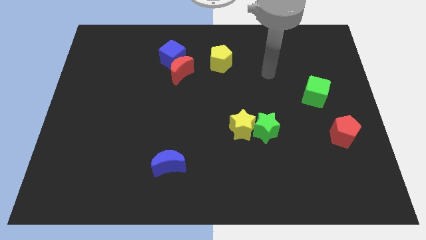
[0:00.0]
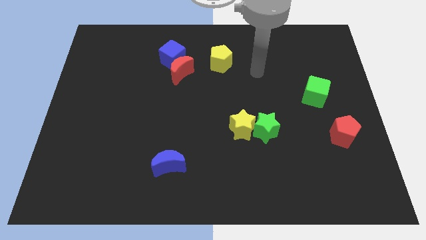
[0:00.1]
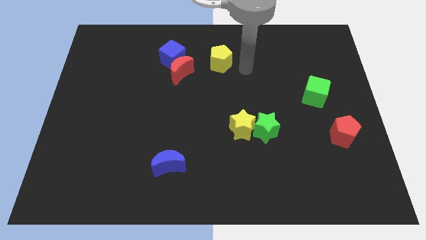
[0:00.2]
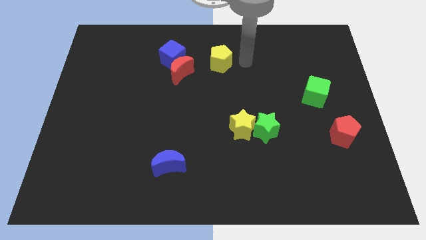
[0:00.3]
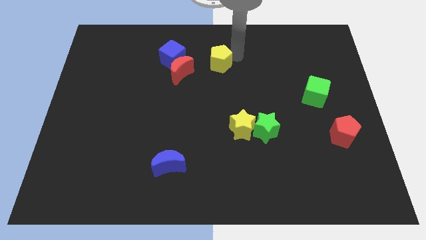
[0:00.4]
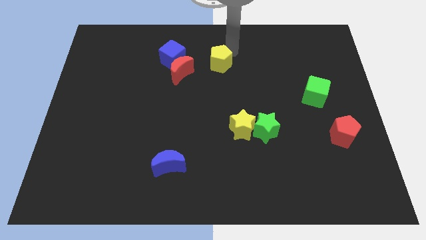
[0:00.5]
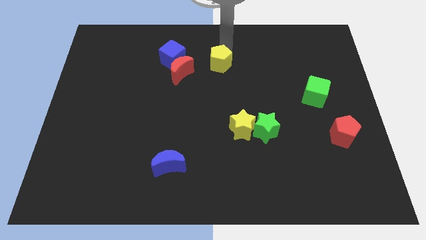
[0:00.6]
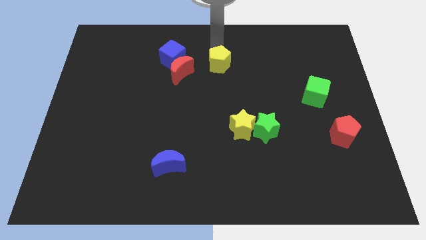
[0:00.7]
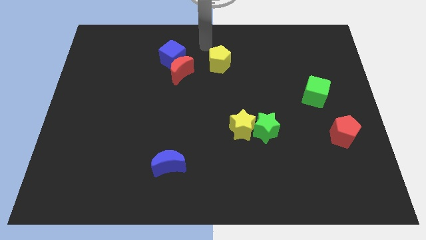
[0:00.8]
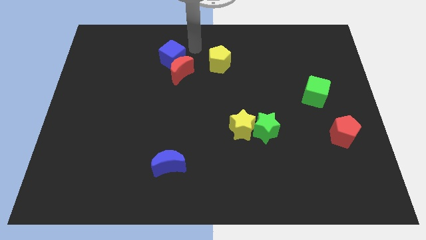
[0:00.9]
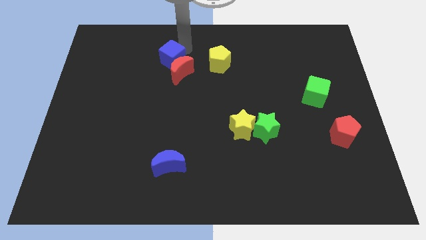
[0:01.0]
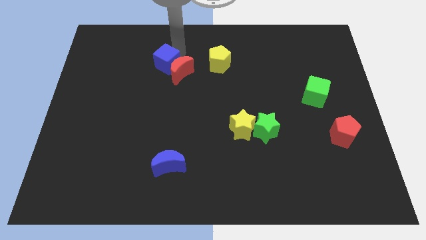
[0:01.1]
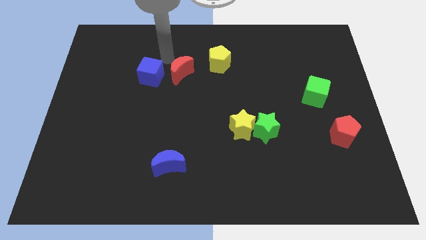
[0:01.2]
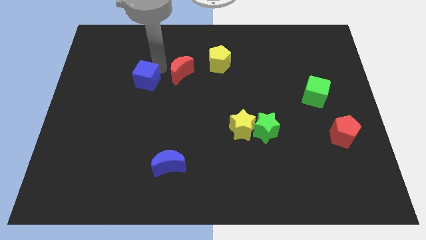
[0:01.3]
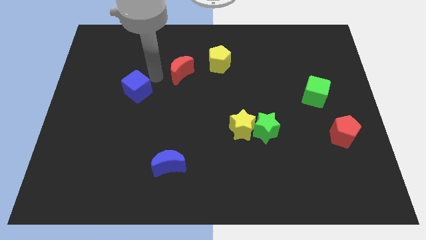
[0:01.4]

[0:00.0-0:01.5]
pull the red moon apart from the blue cube

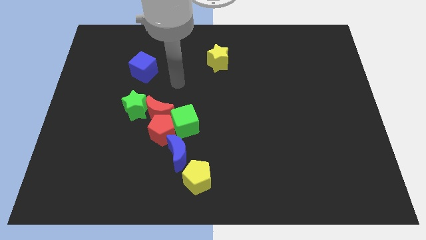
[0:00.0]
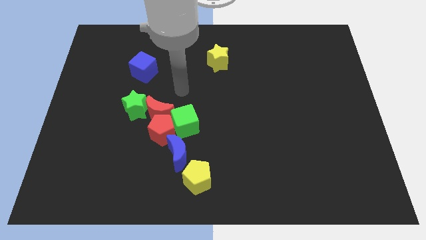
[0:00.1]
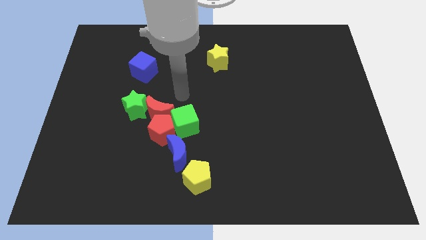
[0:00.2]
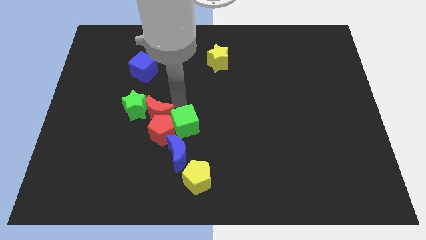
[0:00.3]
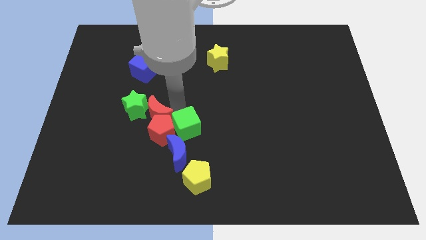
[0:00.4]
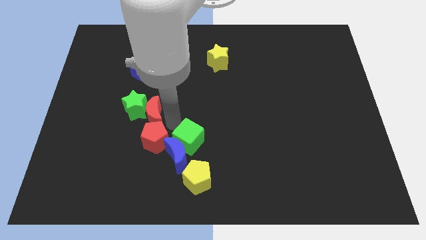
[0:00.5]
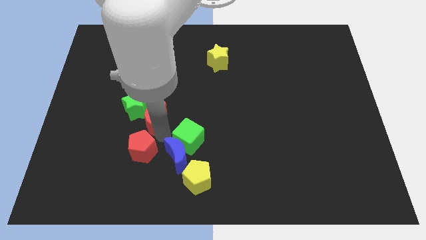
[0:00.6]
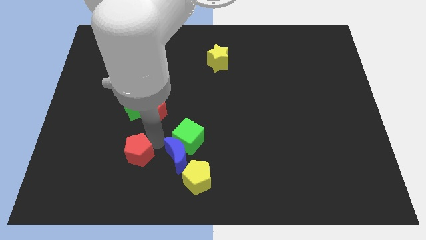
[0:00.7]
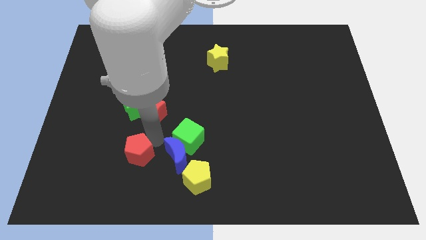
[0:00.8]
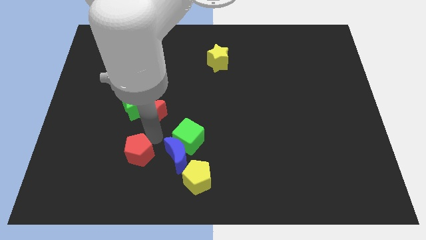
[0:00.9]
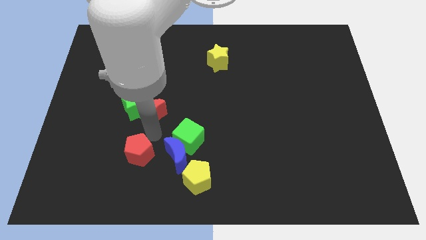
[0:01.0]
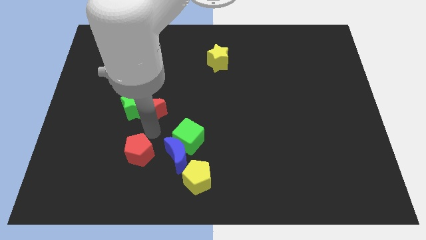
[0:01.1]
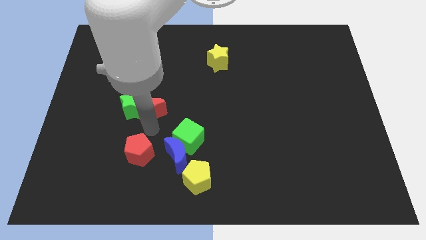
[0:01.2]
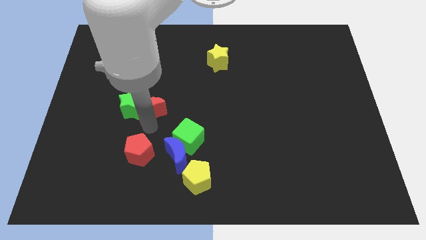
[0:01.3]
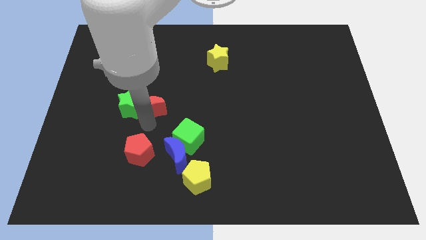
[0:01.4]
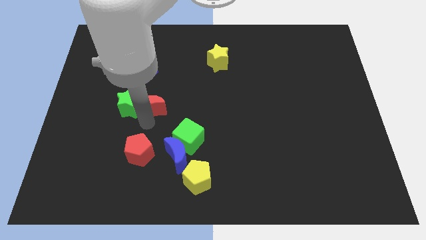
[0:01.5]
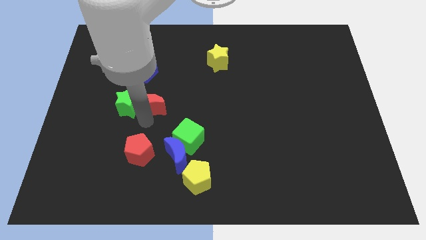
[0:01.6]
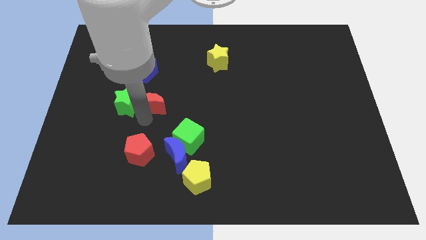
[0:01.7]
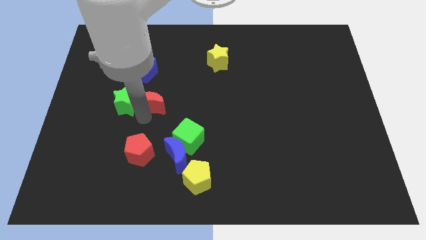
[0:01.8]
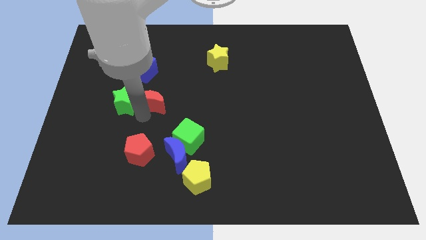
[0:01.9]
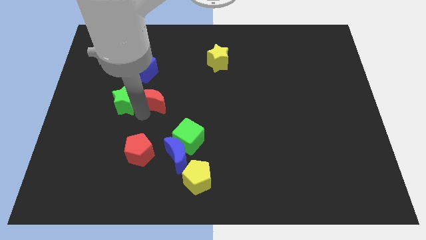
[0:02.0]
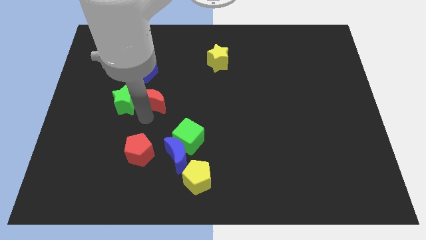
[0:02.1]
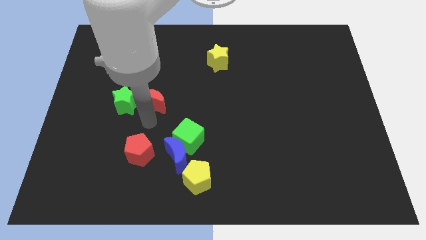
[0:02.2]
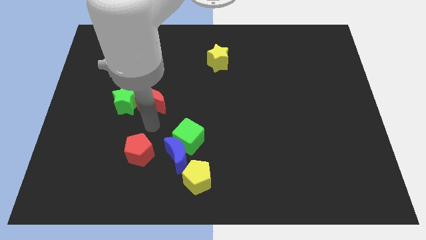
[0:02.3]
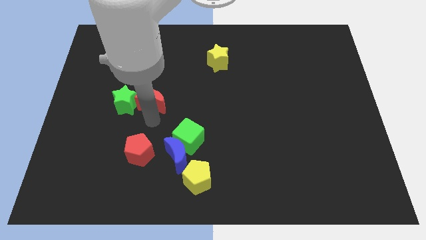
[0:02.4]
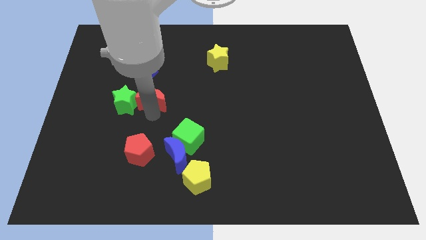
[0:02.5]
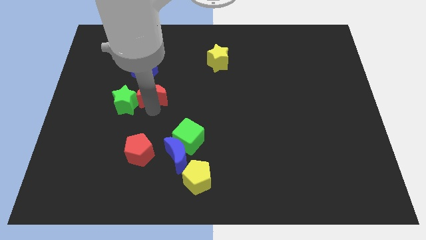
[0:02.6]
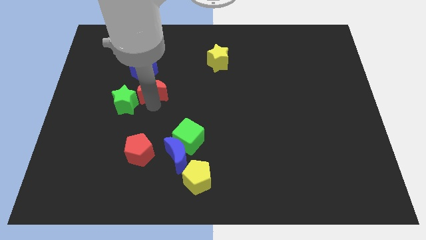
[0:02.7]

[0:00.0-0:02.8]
pull the red moon apart from the group of blocks

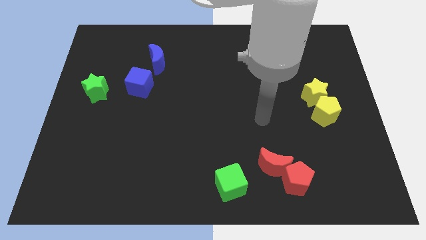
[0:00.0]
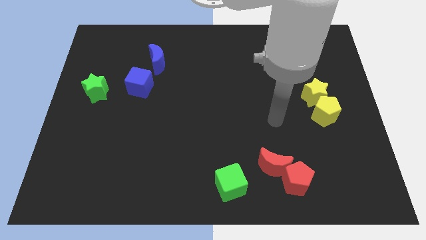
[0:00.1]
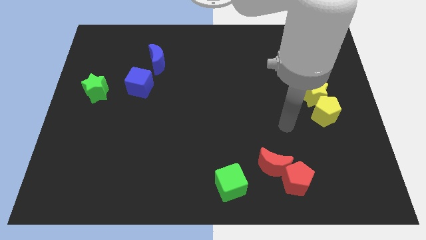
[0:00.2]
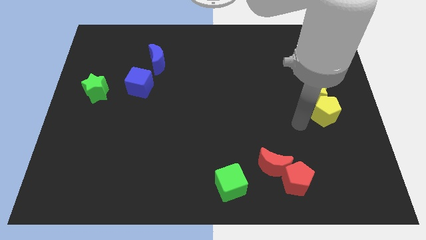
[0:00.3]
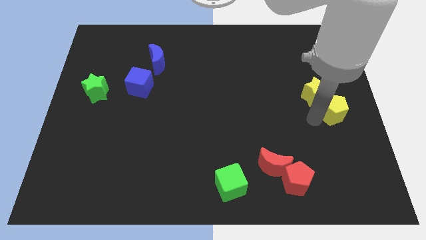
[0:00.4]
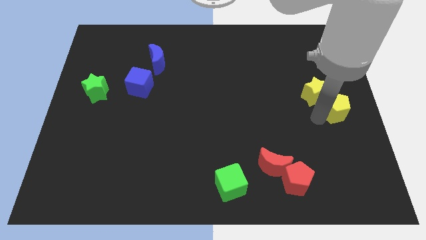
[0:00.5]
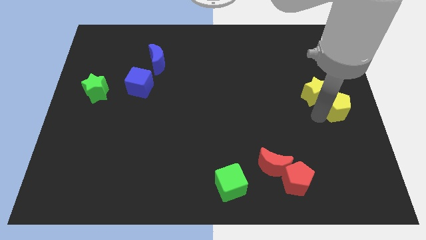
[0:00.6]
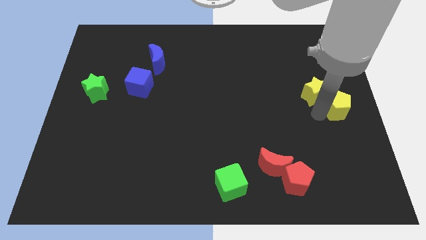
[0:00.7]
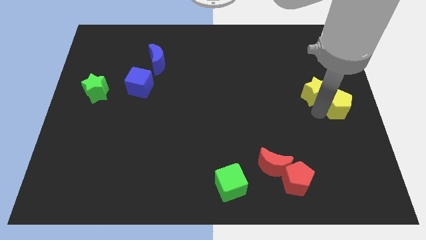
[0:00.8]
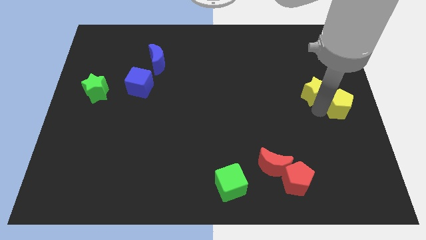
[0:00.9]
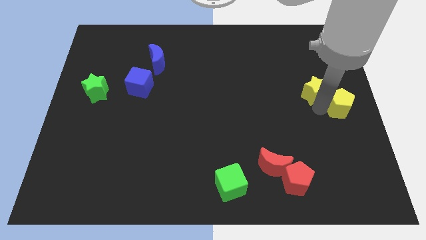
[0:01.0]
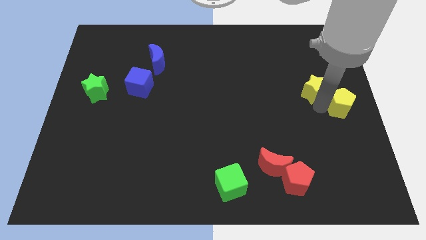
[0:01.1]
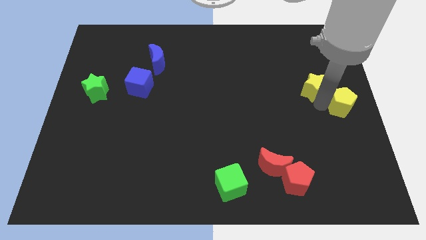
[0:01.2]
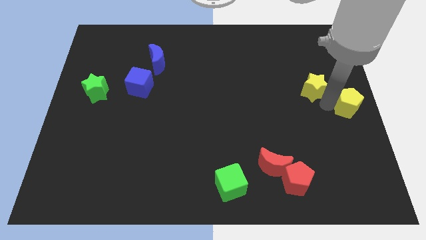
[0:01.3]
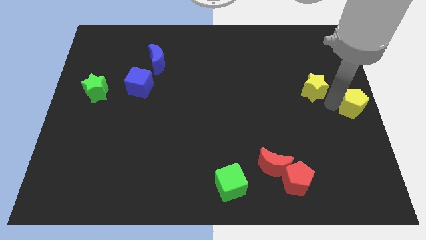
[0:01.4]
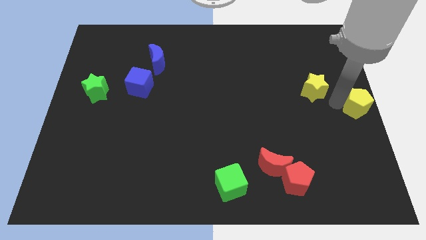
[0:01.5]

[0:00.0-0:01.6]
separate the yellow star from the yellow pentagon

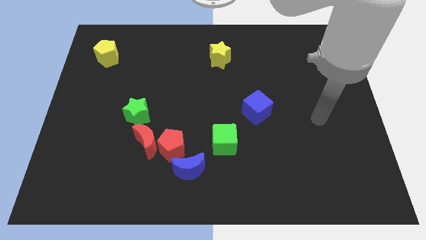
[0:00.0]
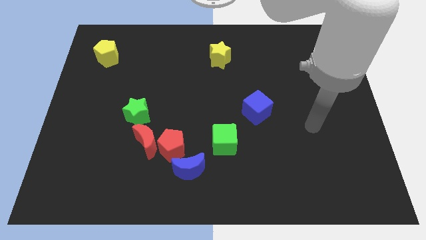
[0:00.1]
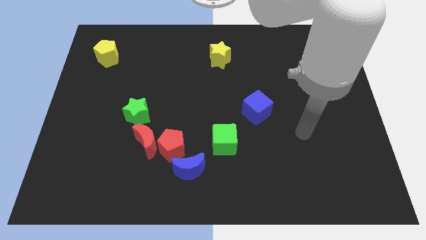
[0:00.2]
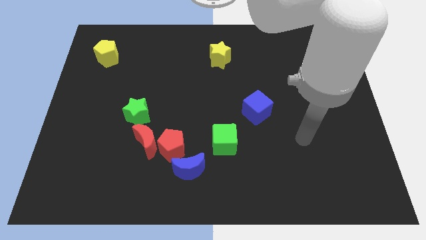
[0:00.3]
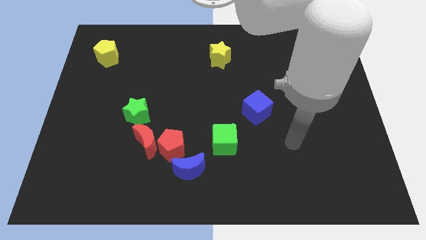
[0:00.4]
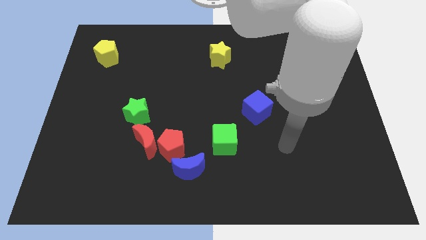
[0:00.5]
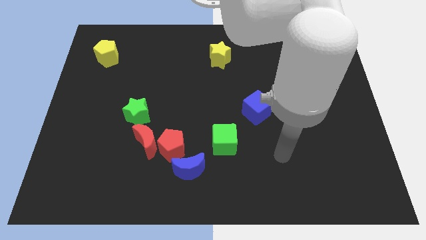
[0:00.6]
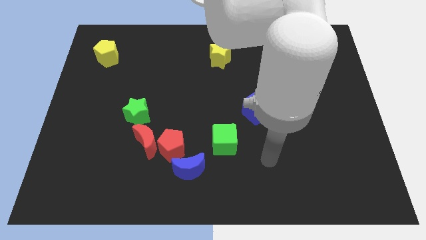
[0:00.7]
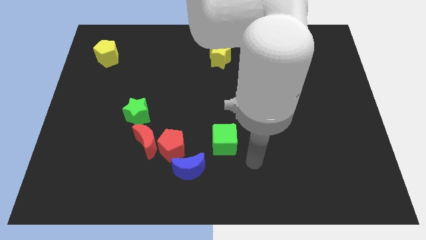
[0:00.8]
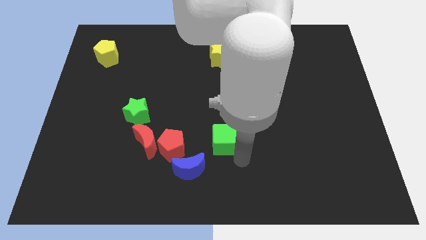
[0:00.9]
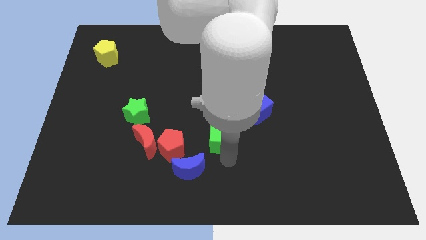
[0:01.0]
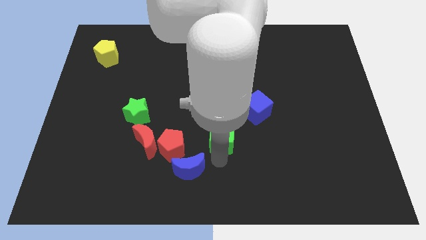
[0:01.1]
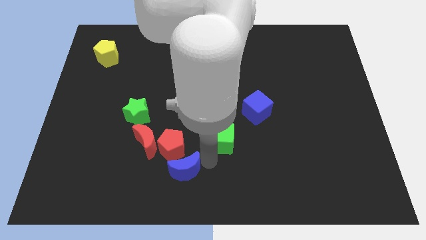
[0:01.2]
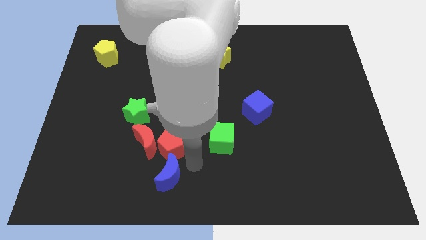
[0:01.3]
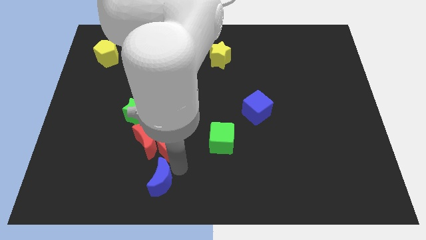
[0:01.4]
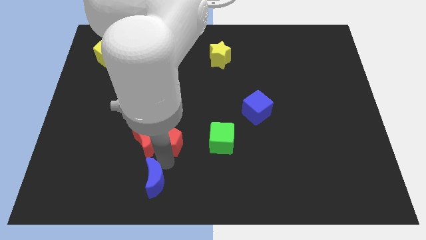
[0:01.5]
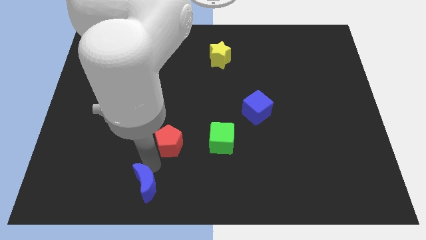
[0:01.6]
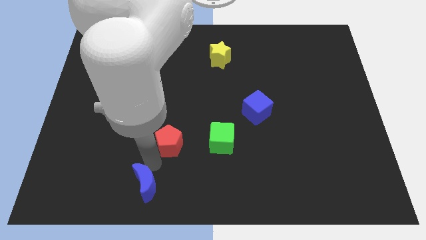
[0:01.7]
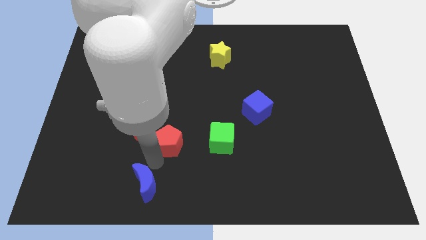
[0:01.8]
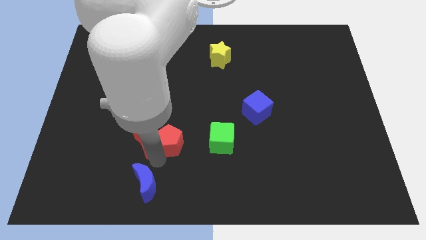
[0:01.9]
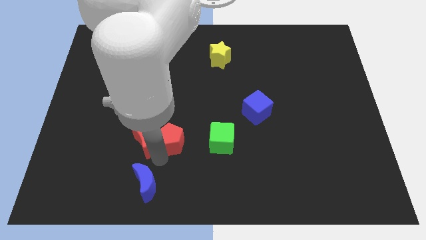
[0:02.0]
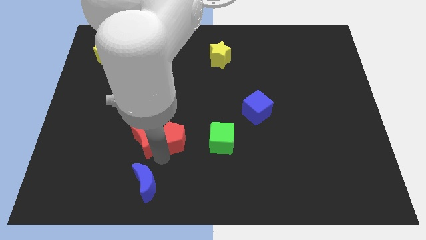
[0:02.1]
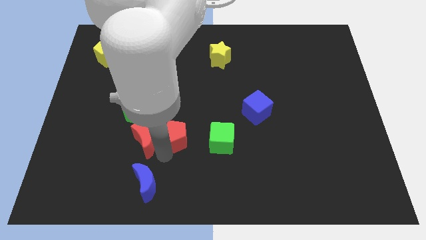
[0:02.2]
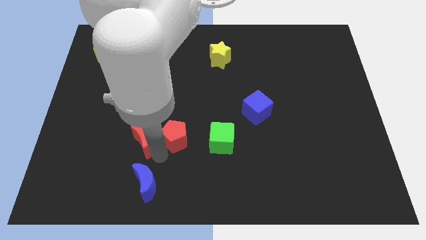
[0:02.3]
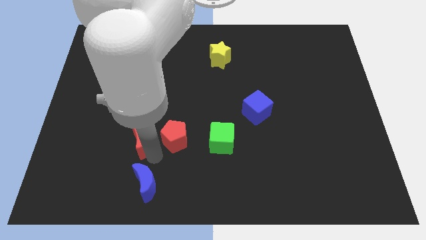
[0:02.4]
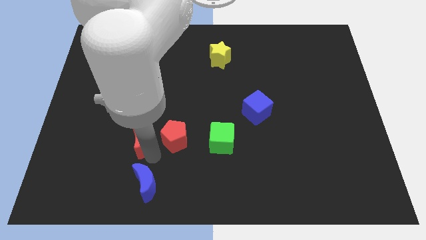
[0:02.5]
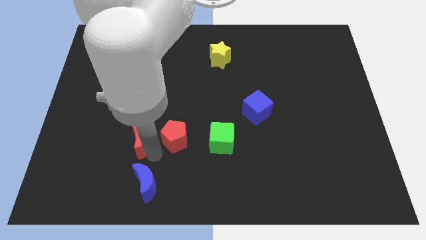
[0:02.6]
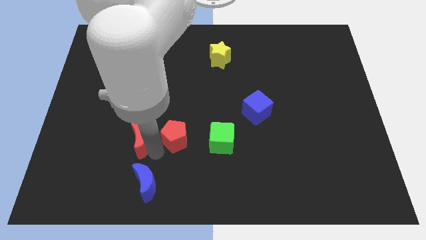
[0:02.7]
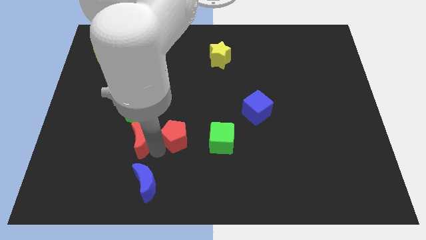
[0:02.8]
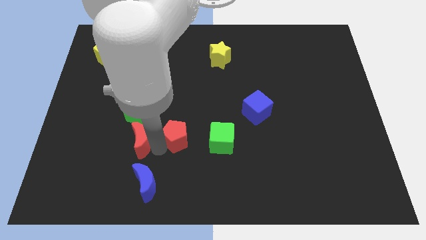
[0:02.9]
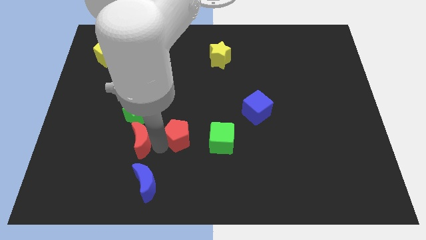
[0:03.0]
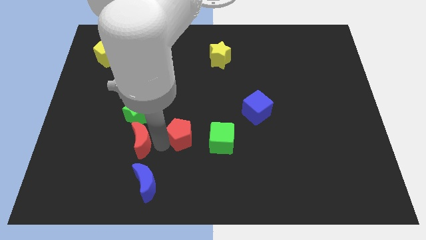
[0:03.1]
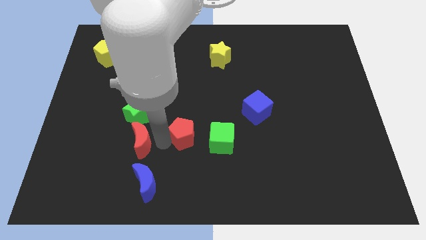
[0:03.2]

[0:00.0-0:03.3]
move the red pentagon away from the red moon and blue moon
